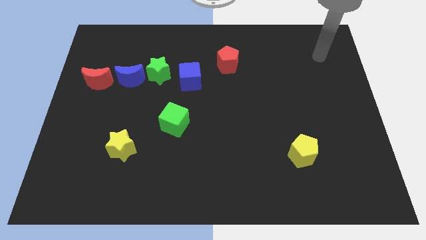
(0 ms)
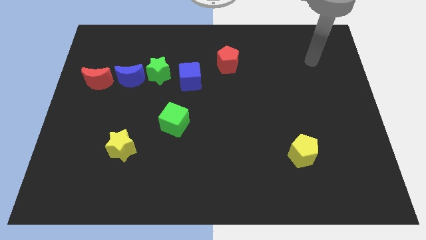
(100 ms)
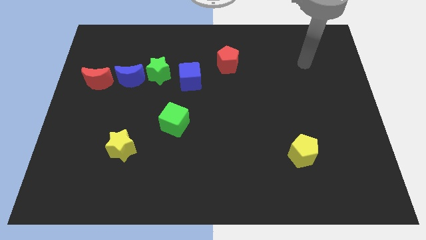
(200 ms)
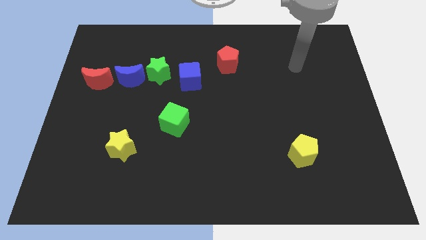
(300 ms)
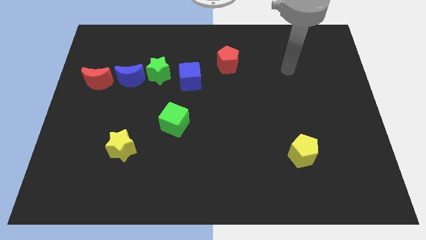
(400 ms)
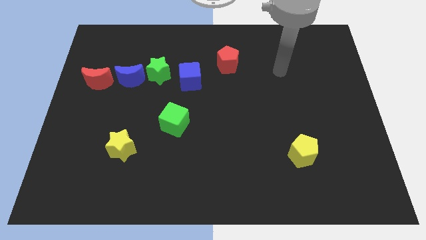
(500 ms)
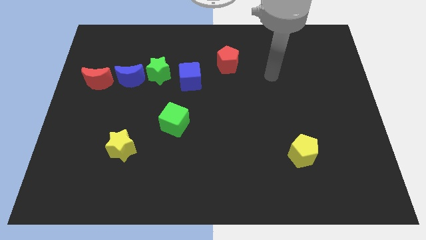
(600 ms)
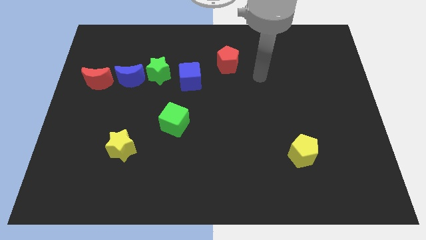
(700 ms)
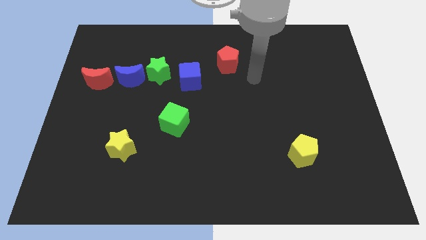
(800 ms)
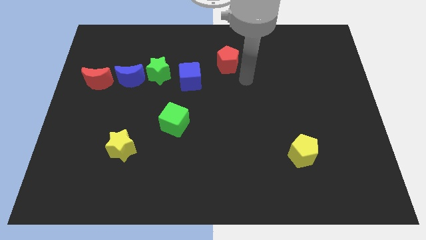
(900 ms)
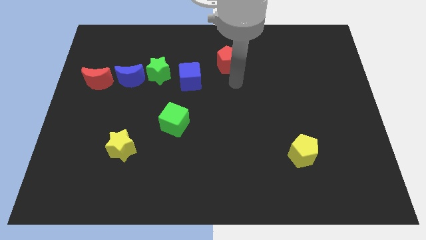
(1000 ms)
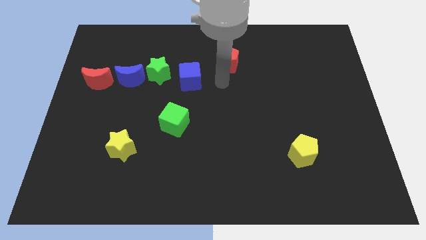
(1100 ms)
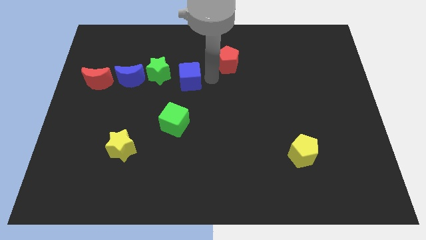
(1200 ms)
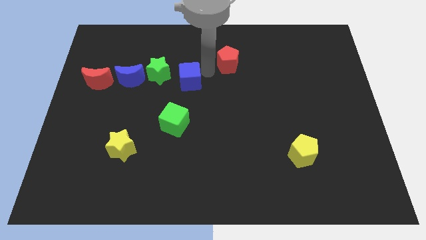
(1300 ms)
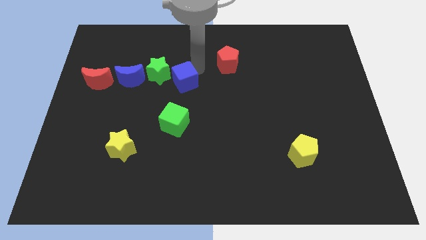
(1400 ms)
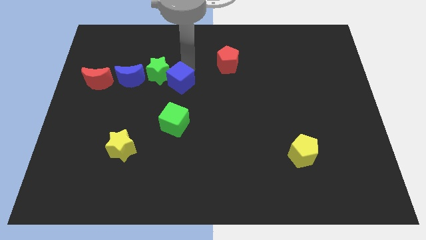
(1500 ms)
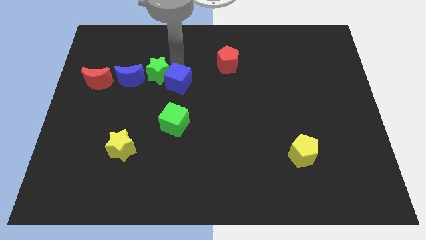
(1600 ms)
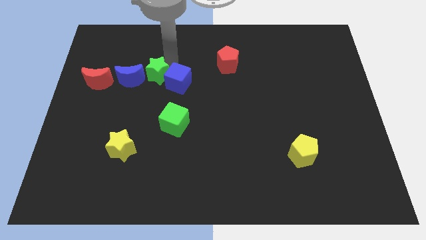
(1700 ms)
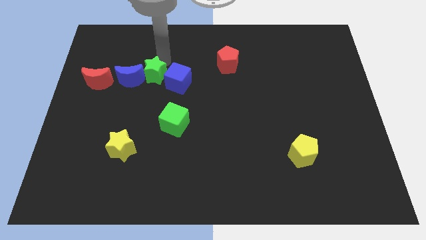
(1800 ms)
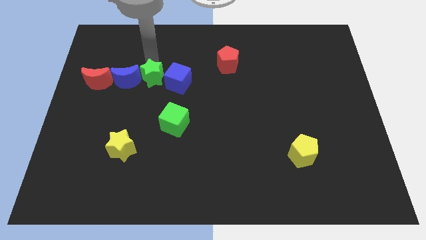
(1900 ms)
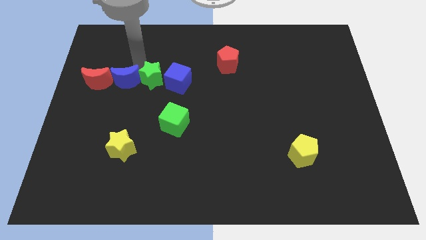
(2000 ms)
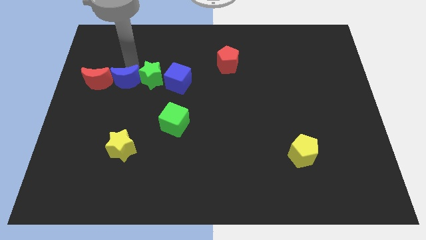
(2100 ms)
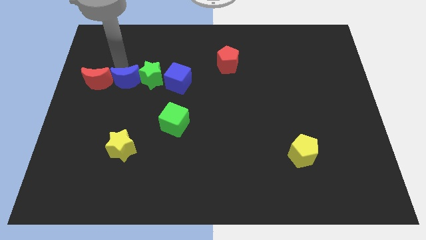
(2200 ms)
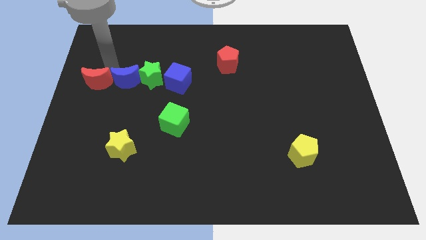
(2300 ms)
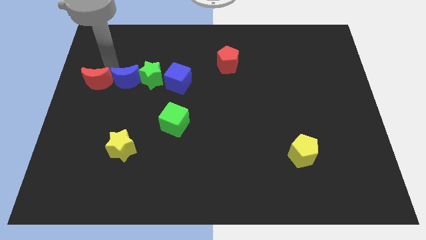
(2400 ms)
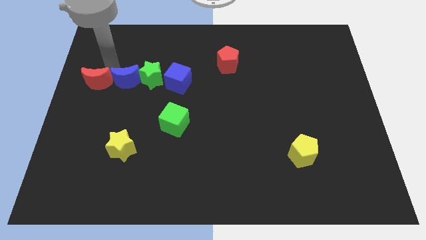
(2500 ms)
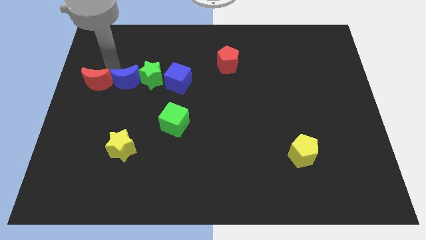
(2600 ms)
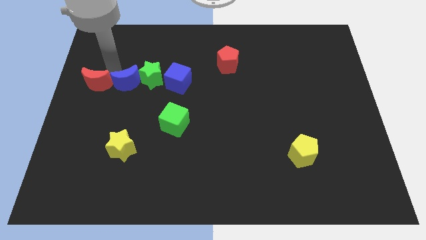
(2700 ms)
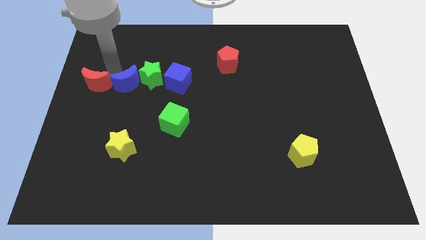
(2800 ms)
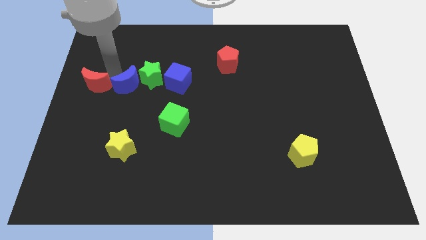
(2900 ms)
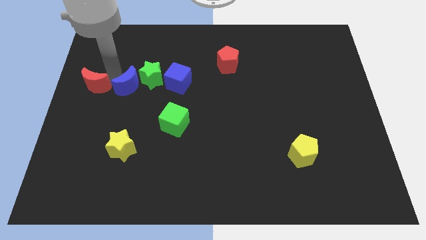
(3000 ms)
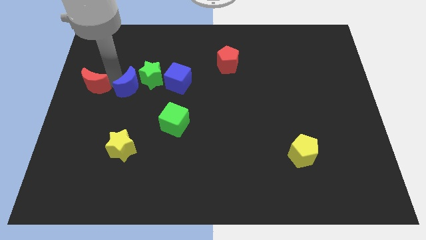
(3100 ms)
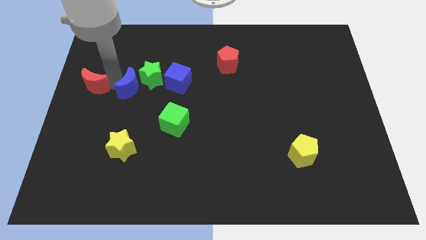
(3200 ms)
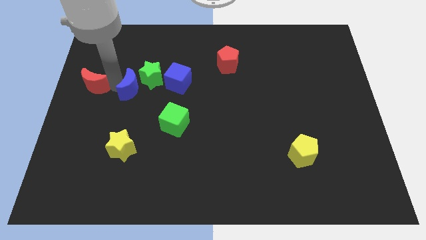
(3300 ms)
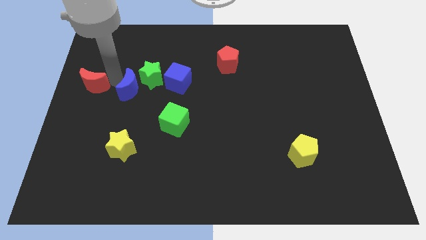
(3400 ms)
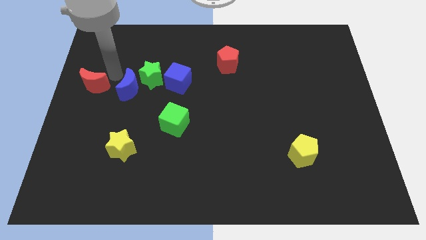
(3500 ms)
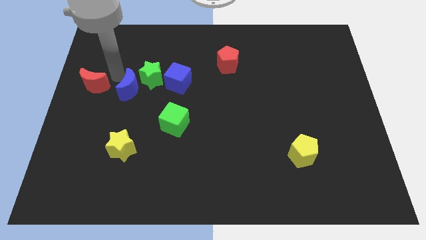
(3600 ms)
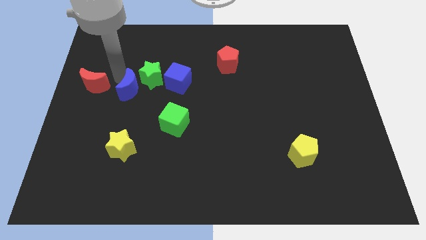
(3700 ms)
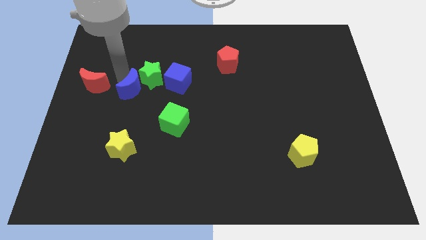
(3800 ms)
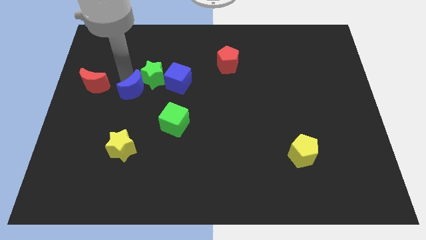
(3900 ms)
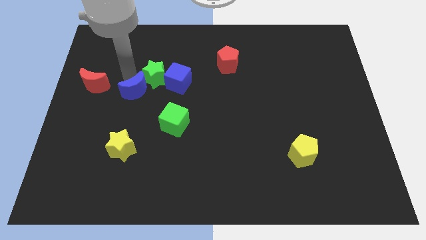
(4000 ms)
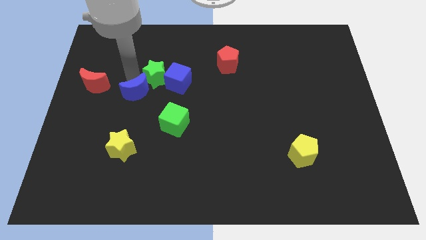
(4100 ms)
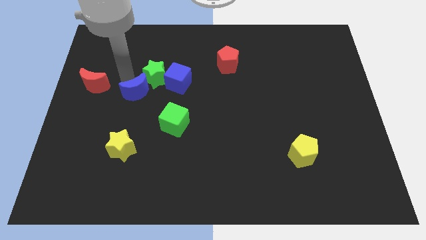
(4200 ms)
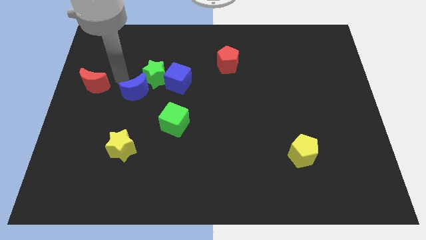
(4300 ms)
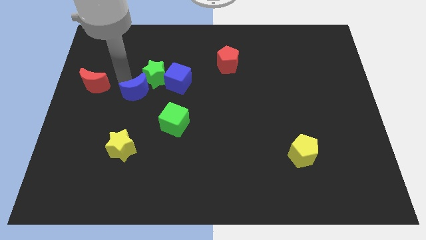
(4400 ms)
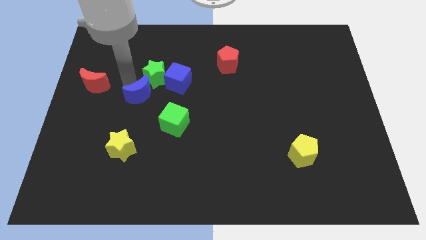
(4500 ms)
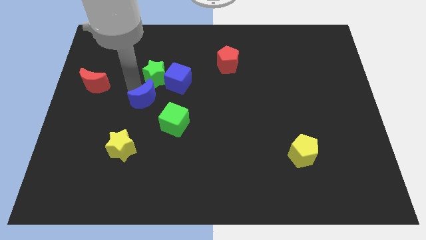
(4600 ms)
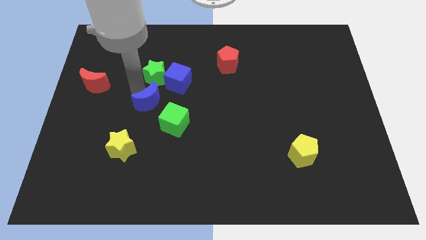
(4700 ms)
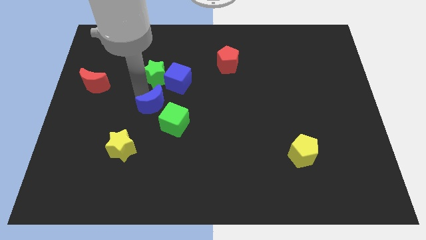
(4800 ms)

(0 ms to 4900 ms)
move the blue moon away from the green star and red moon

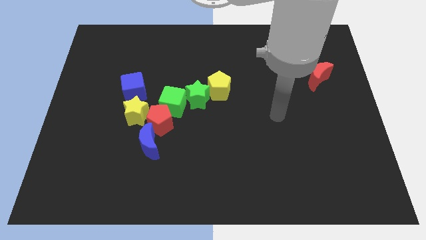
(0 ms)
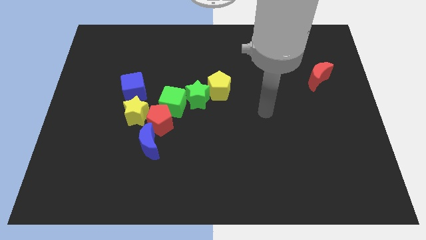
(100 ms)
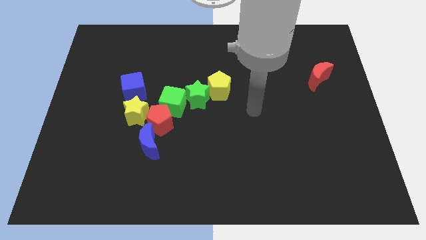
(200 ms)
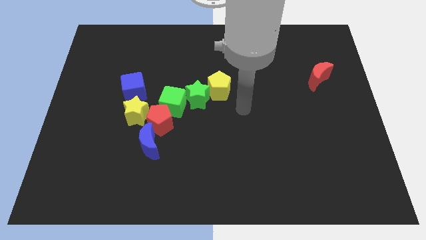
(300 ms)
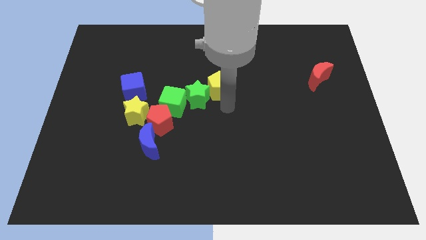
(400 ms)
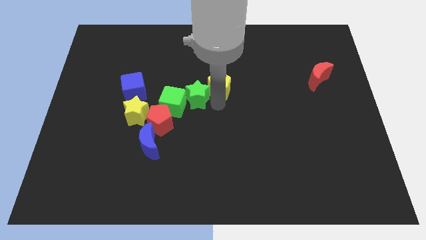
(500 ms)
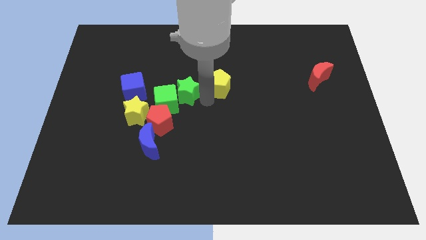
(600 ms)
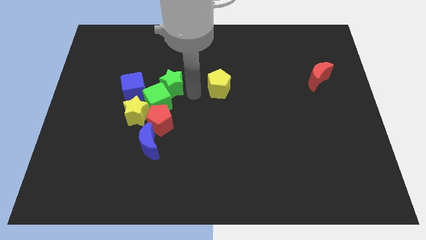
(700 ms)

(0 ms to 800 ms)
move the yellow pentagon away from the green star

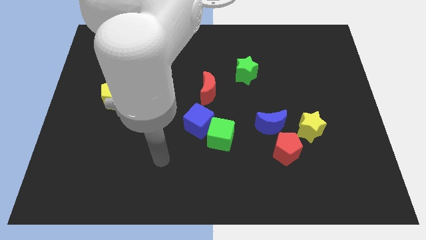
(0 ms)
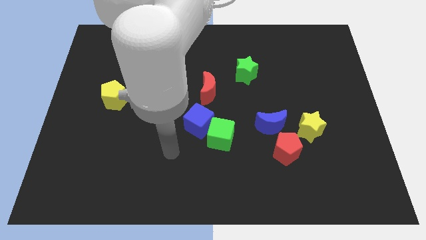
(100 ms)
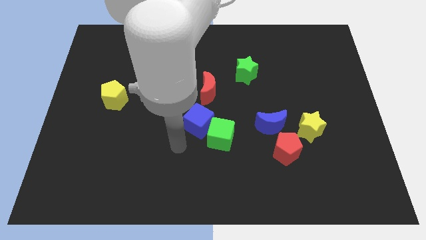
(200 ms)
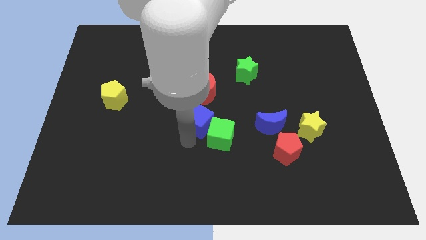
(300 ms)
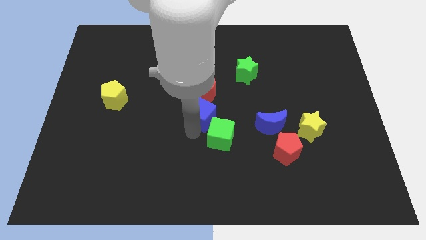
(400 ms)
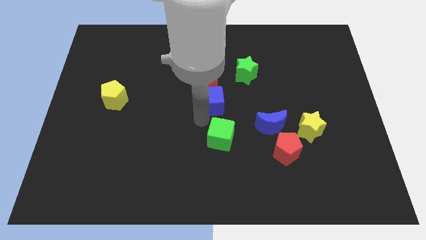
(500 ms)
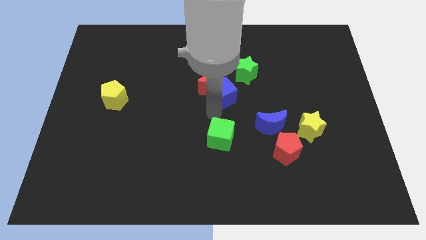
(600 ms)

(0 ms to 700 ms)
pull the green cube apart from the blue cube

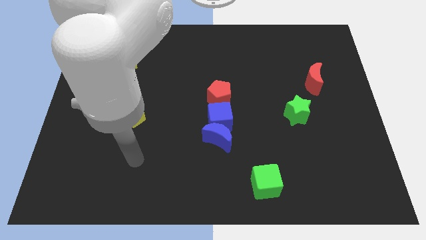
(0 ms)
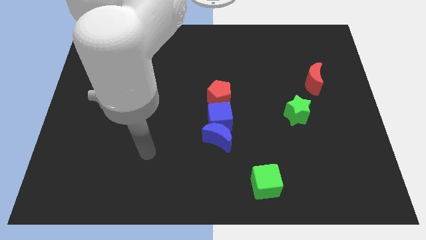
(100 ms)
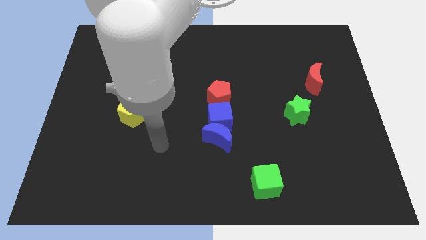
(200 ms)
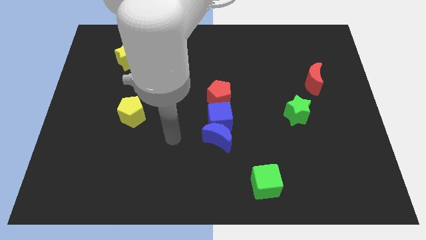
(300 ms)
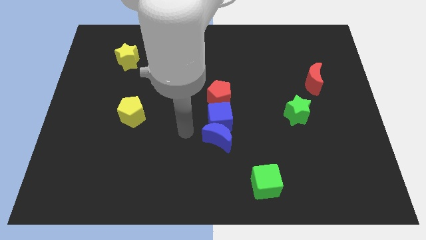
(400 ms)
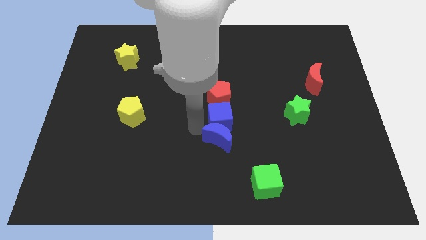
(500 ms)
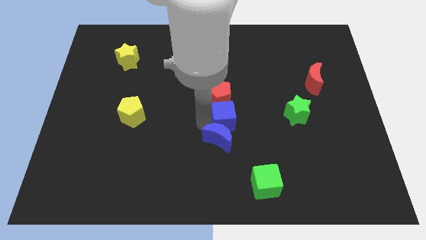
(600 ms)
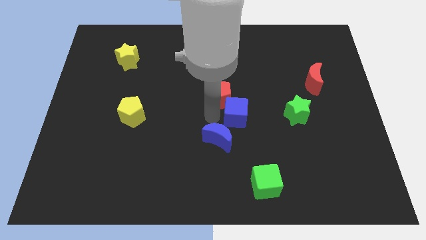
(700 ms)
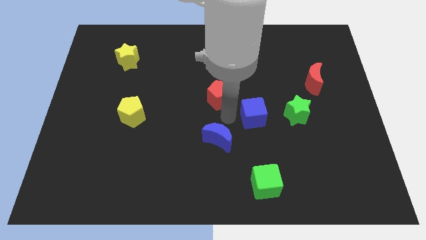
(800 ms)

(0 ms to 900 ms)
separate the blue moon from the blue cube

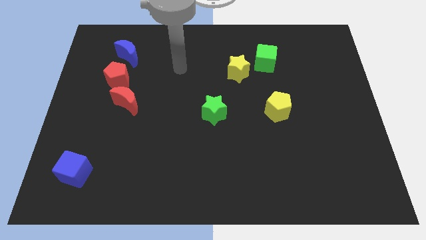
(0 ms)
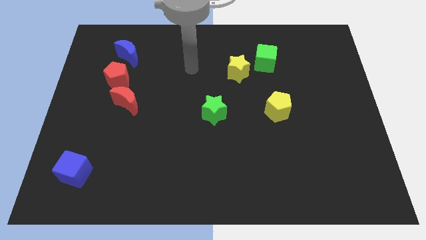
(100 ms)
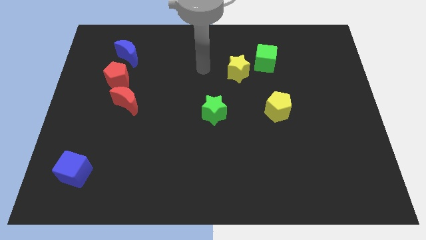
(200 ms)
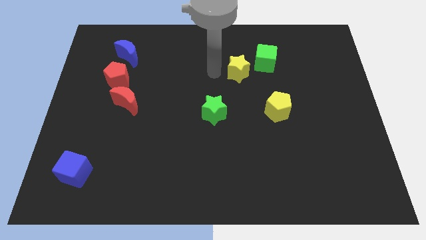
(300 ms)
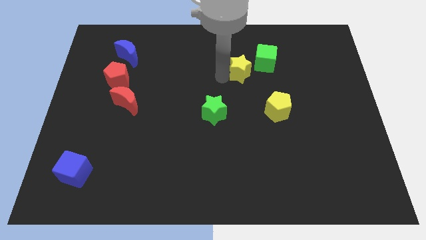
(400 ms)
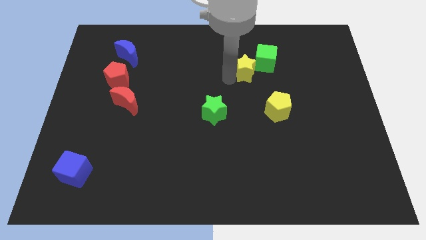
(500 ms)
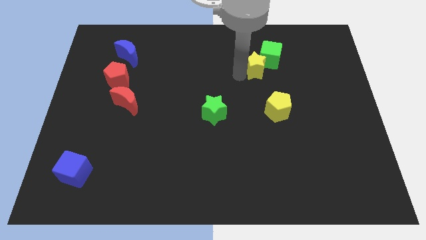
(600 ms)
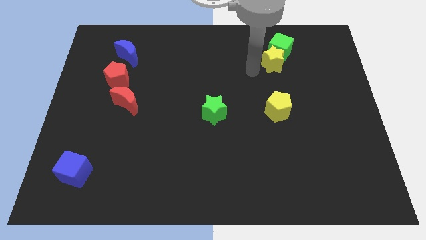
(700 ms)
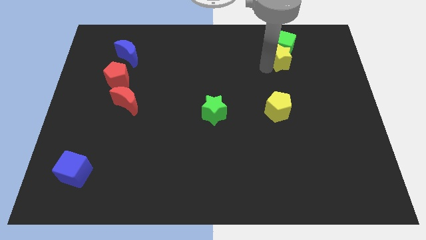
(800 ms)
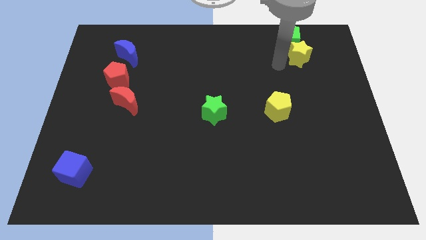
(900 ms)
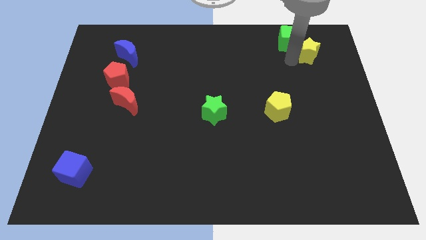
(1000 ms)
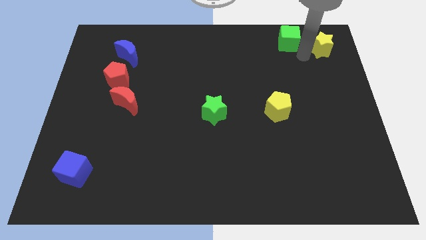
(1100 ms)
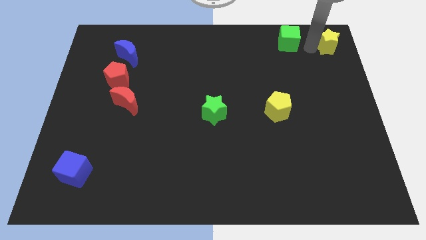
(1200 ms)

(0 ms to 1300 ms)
move the green cube away from the yellow star

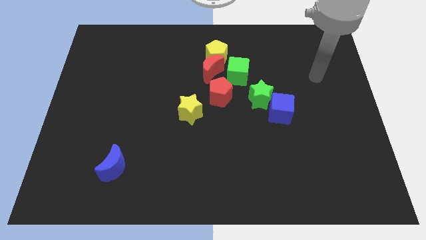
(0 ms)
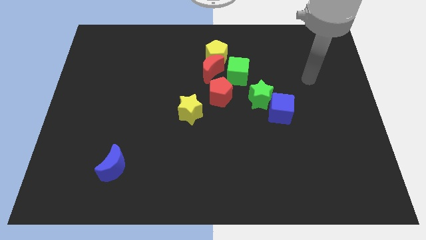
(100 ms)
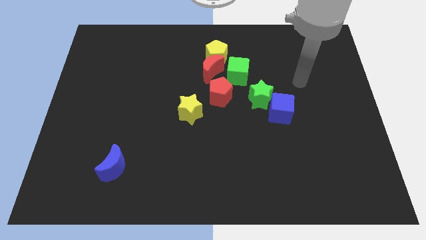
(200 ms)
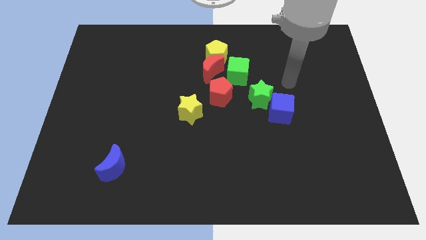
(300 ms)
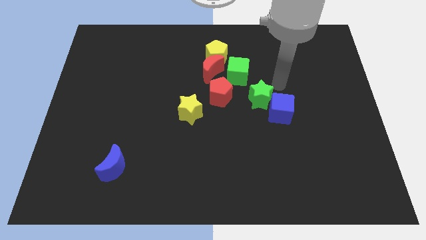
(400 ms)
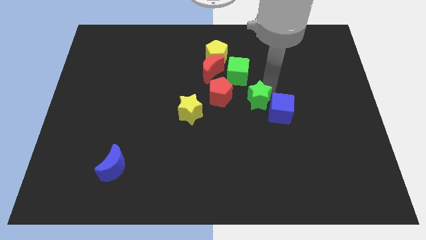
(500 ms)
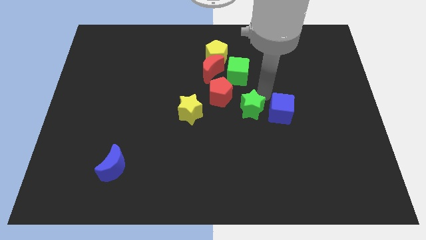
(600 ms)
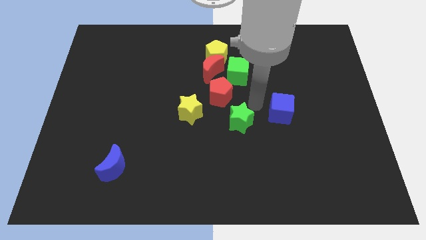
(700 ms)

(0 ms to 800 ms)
pull the blue cube apart from the green star

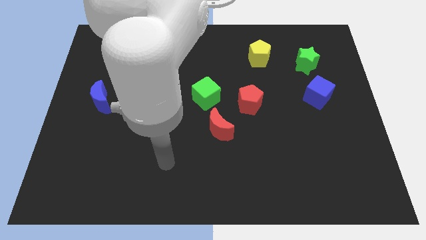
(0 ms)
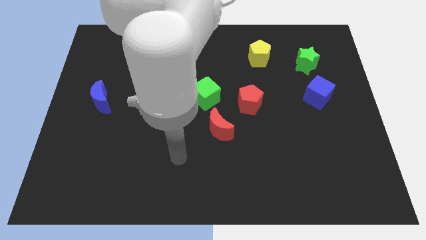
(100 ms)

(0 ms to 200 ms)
pull the red moon apart from the green cube
